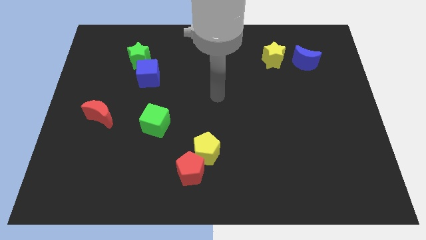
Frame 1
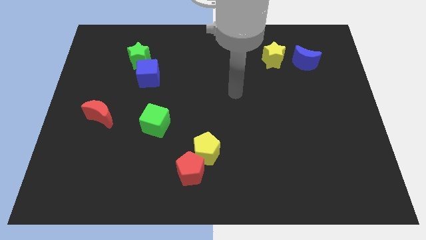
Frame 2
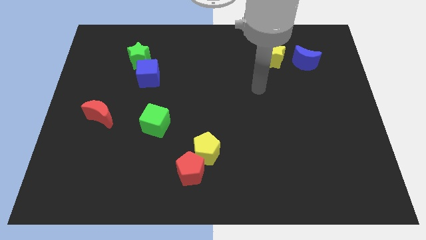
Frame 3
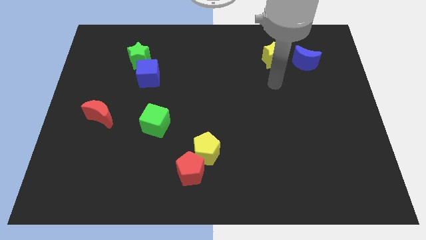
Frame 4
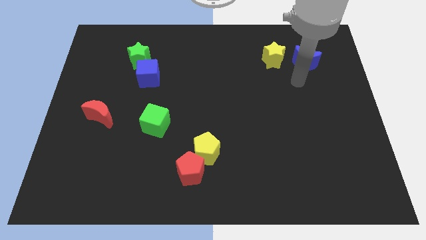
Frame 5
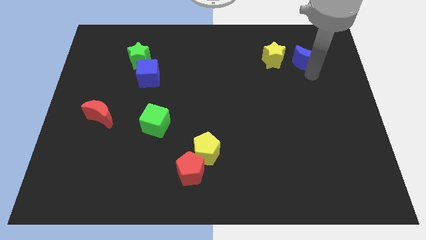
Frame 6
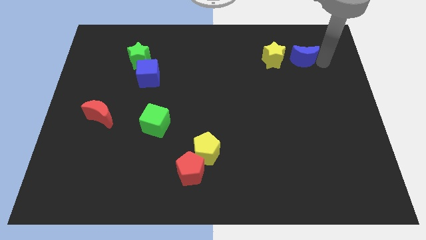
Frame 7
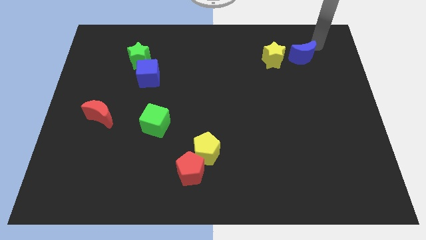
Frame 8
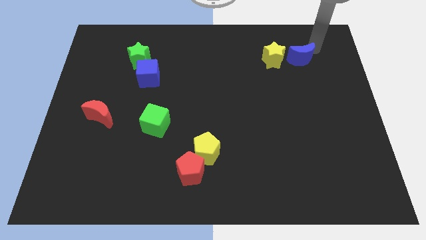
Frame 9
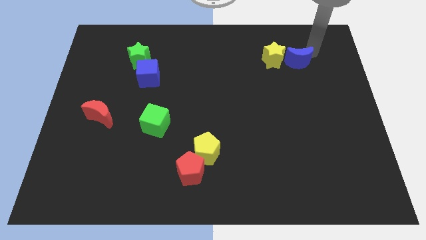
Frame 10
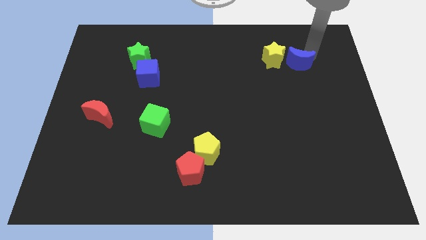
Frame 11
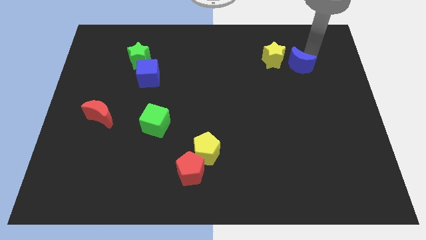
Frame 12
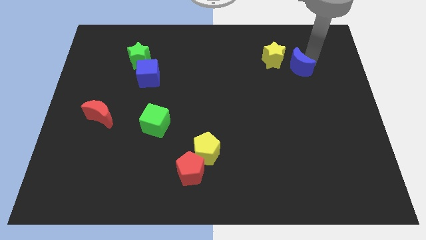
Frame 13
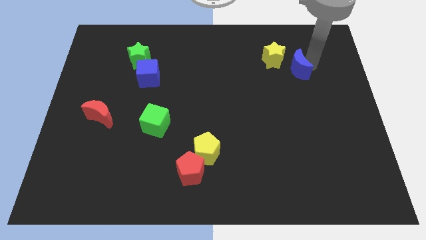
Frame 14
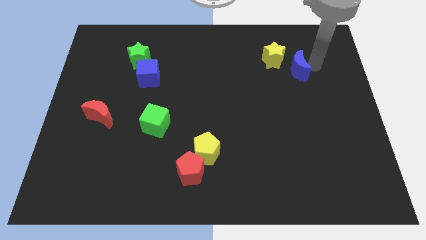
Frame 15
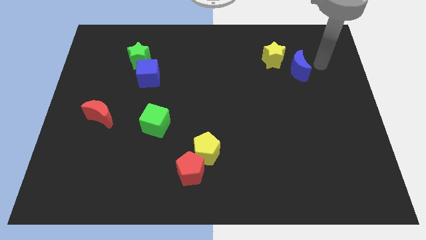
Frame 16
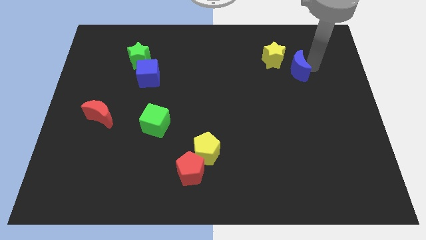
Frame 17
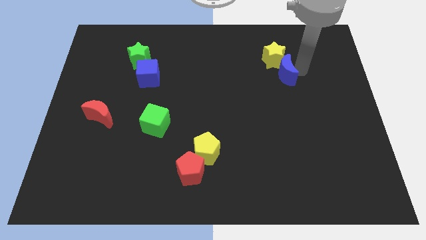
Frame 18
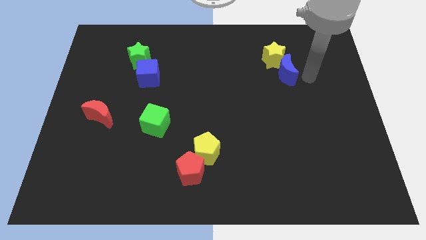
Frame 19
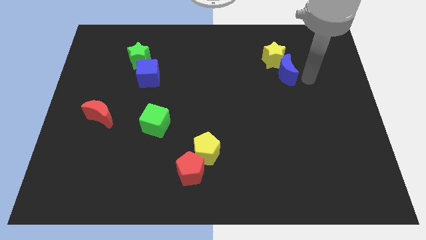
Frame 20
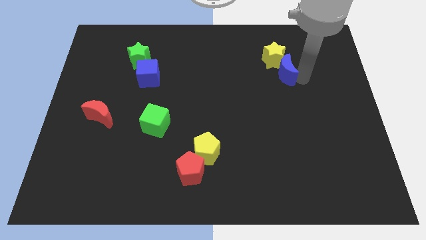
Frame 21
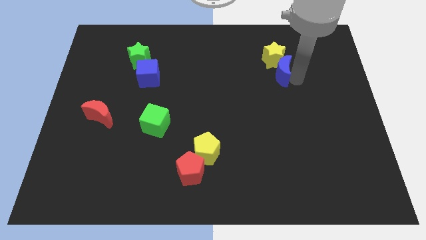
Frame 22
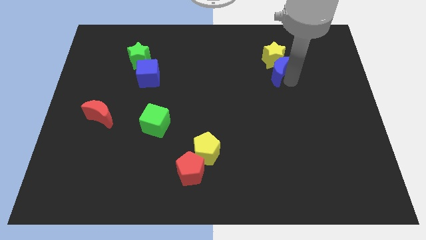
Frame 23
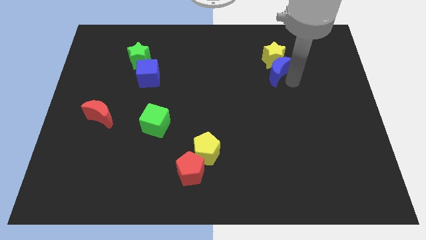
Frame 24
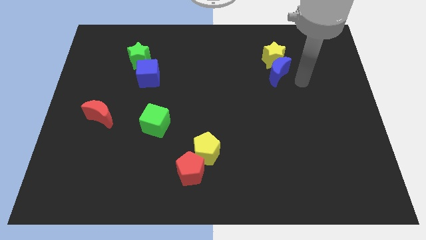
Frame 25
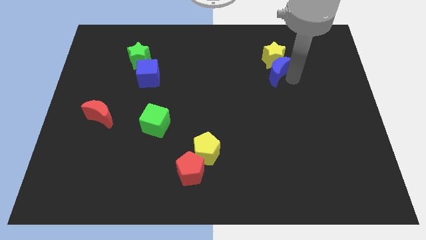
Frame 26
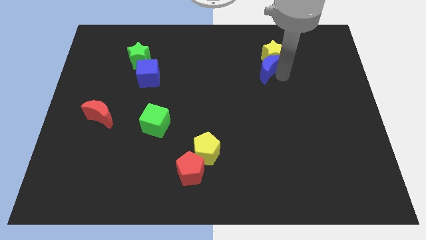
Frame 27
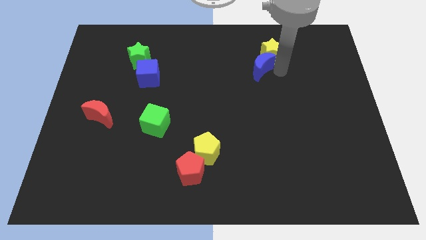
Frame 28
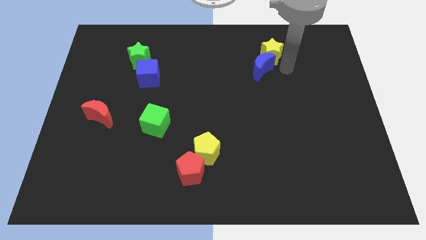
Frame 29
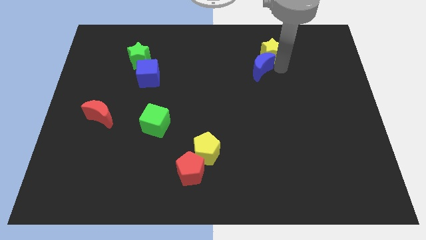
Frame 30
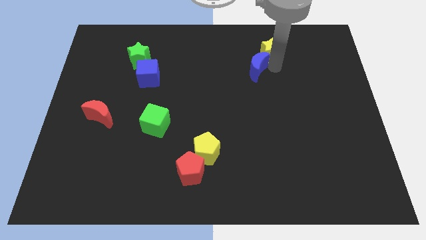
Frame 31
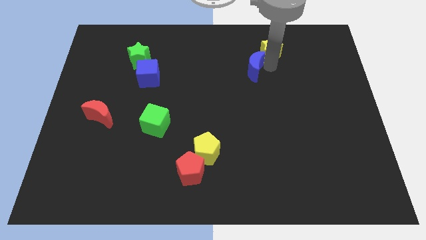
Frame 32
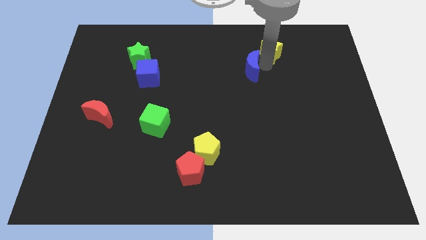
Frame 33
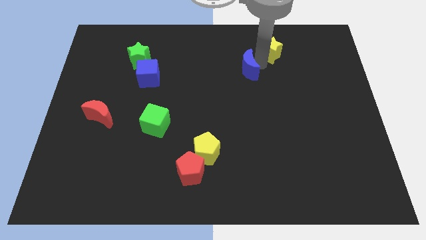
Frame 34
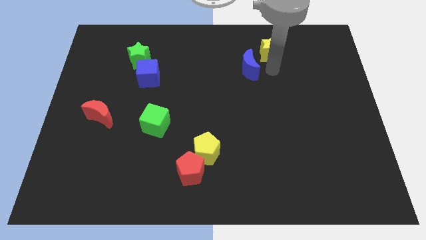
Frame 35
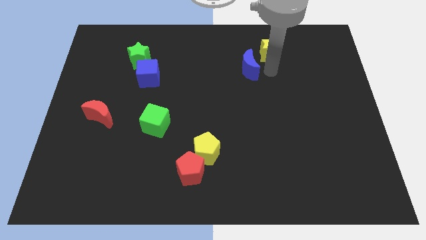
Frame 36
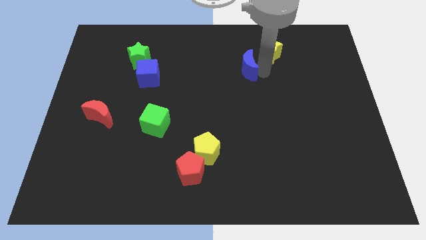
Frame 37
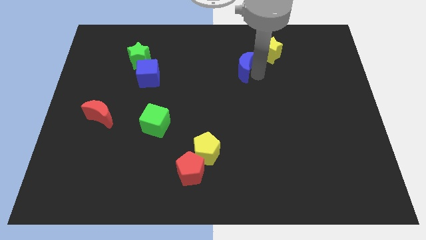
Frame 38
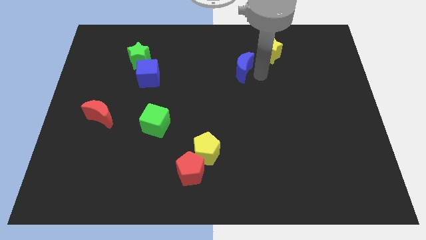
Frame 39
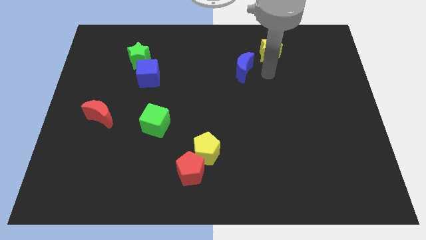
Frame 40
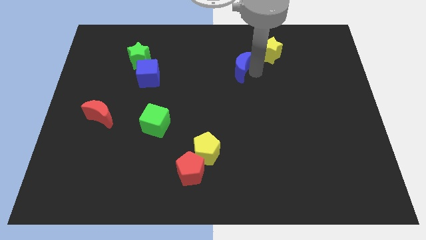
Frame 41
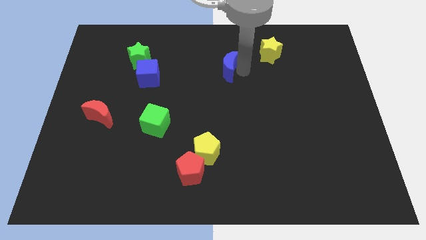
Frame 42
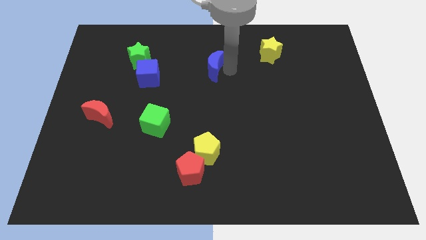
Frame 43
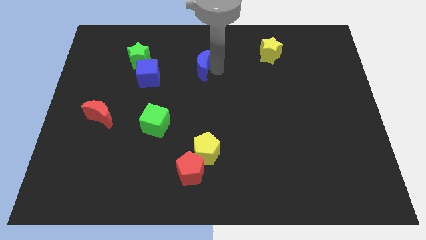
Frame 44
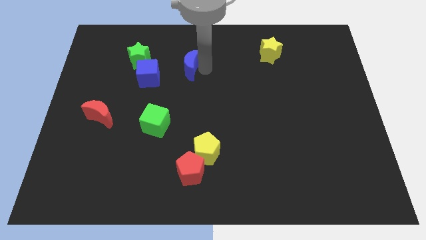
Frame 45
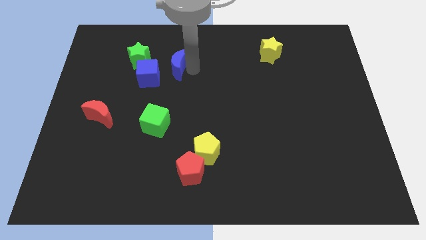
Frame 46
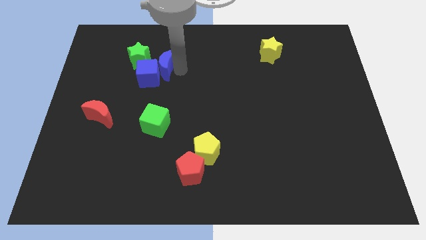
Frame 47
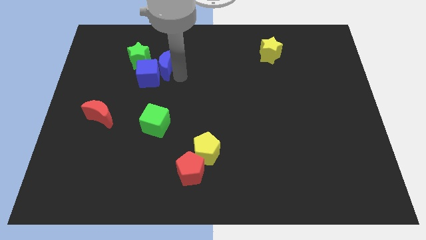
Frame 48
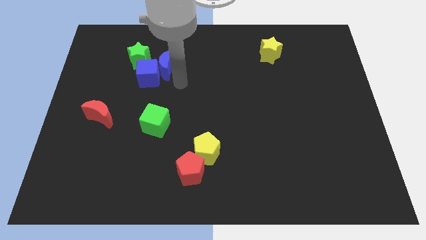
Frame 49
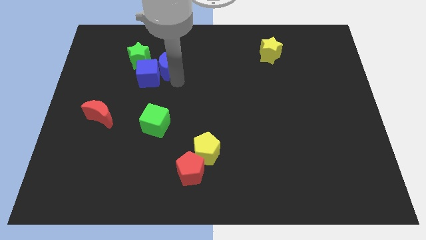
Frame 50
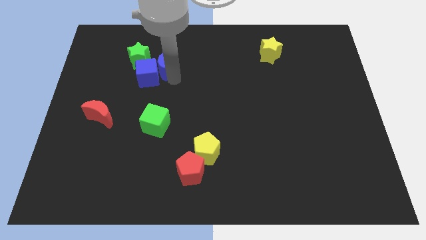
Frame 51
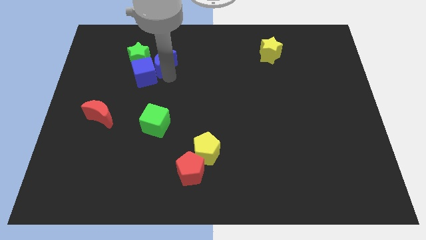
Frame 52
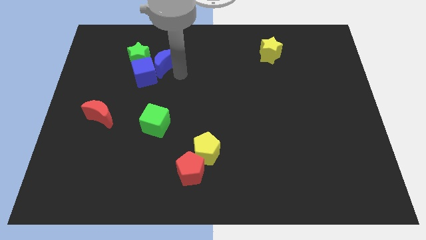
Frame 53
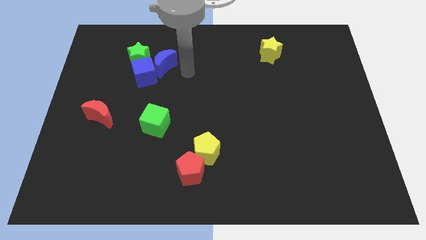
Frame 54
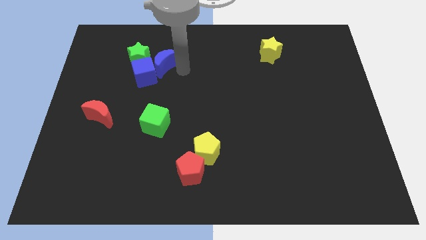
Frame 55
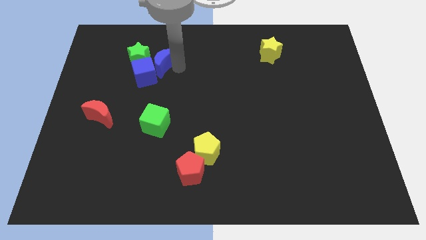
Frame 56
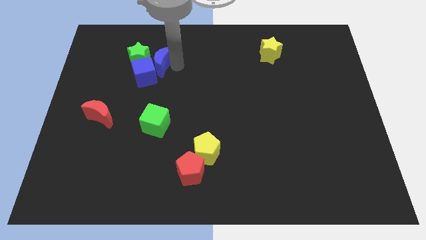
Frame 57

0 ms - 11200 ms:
move the blue moon to the green star

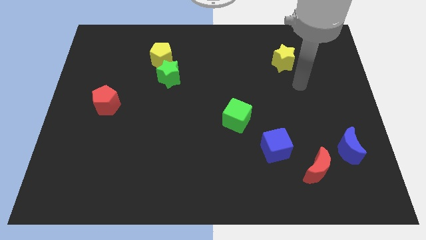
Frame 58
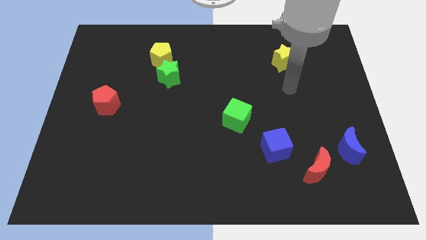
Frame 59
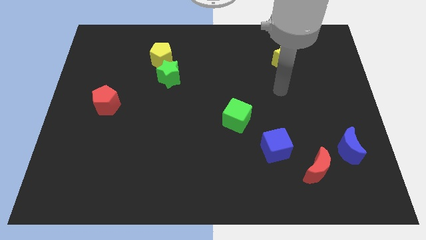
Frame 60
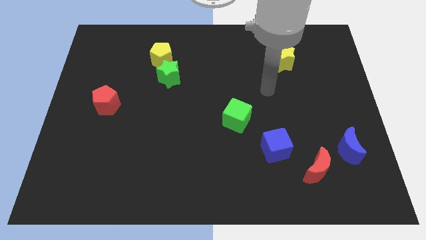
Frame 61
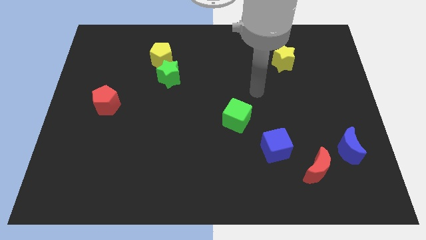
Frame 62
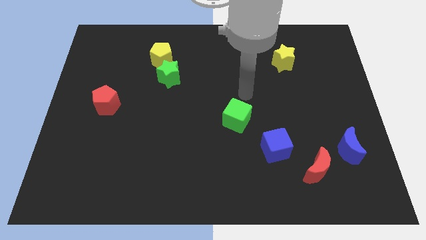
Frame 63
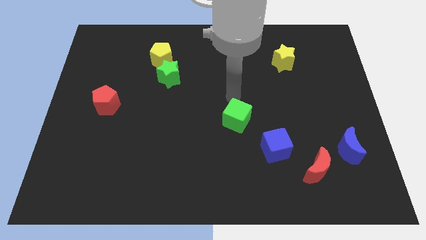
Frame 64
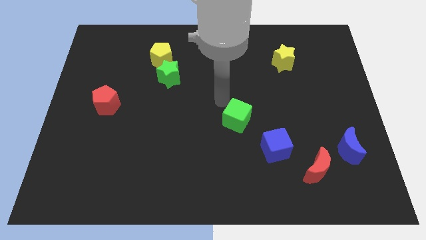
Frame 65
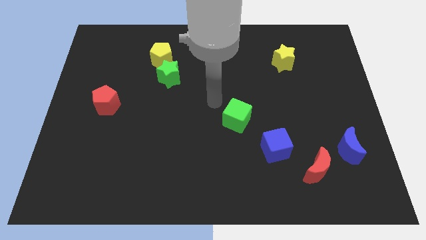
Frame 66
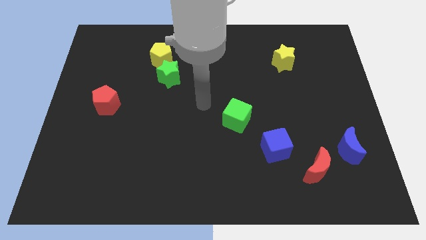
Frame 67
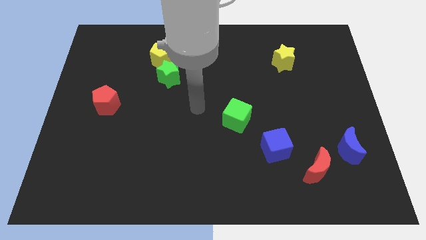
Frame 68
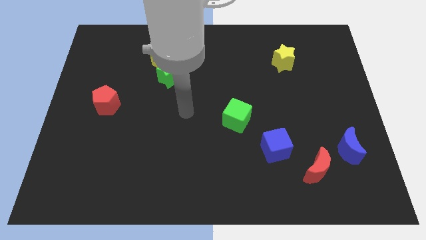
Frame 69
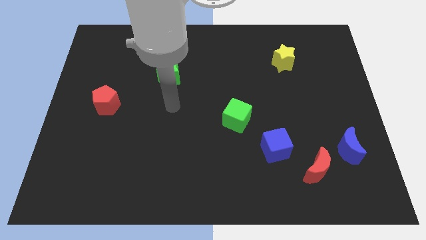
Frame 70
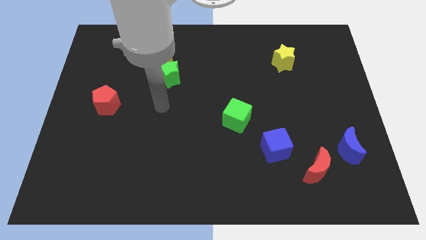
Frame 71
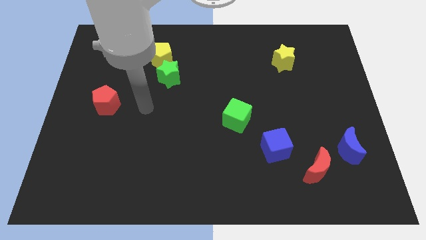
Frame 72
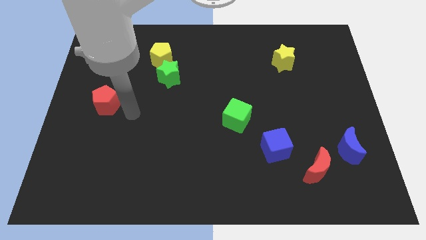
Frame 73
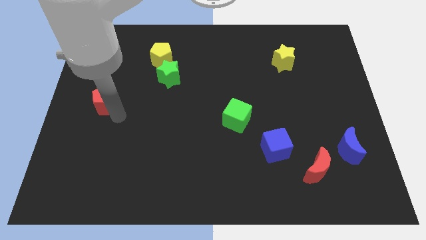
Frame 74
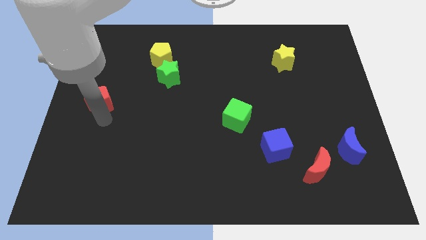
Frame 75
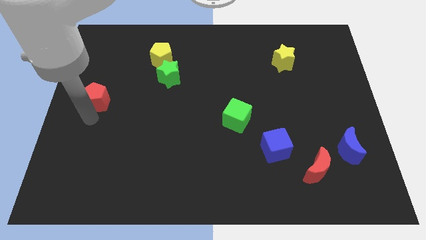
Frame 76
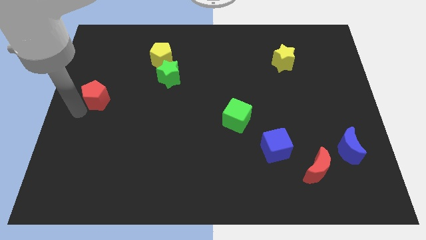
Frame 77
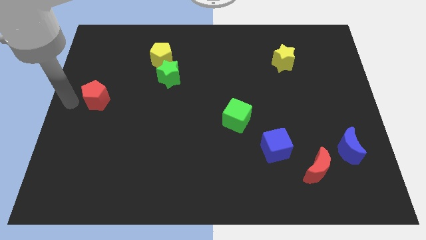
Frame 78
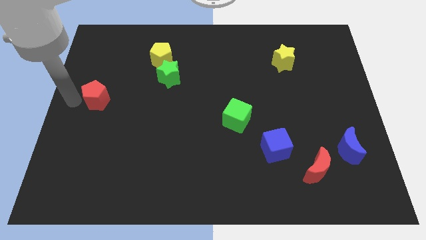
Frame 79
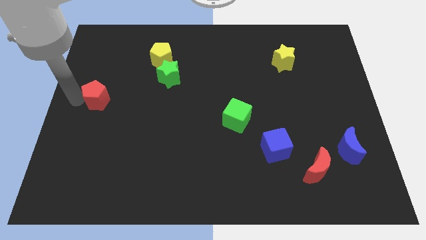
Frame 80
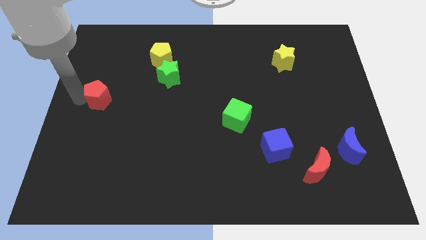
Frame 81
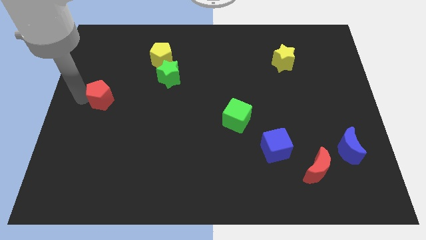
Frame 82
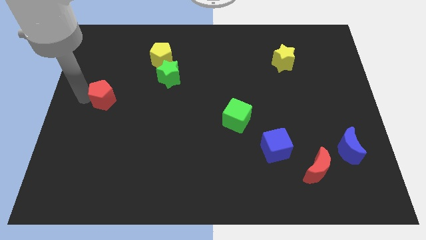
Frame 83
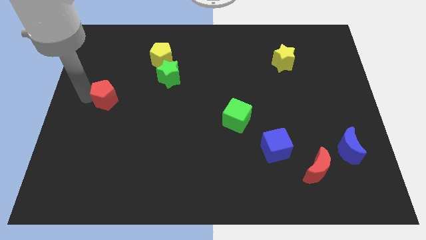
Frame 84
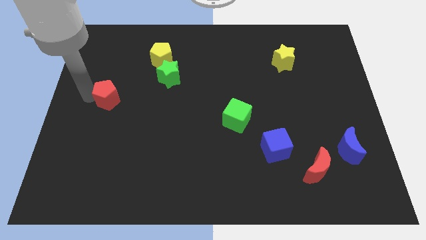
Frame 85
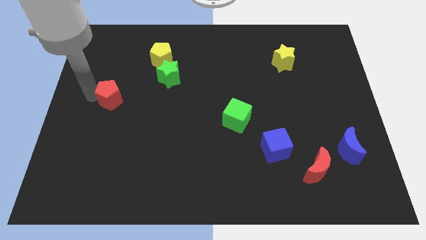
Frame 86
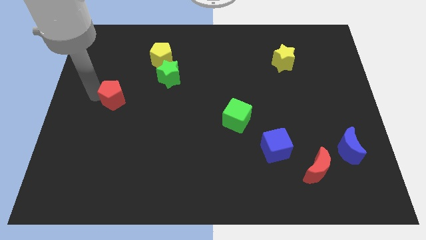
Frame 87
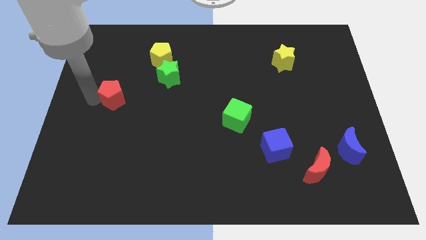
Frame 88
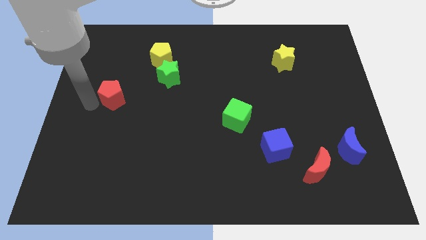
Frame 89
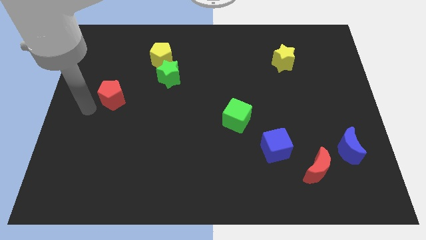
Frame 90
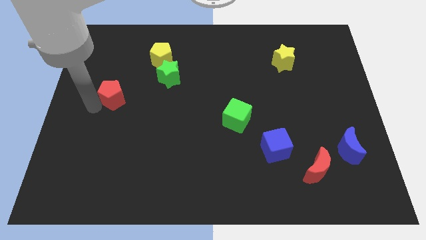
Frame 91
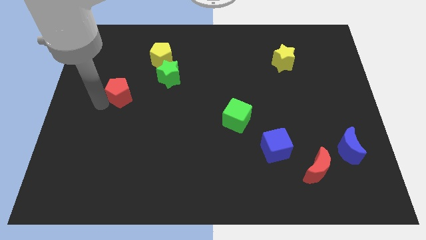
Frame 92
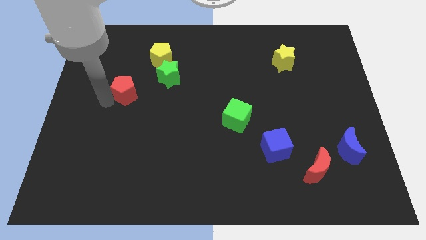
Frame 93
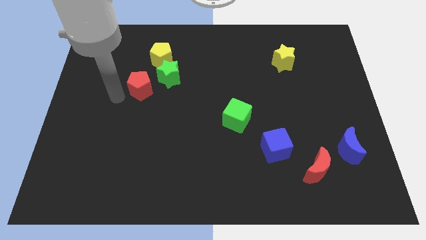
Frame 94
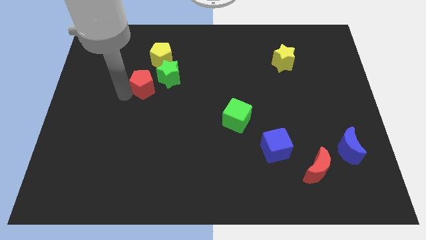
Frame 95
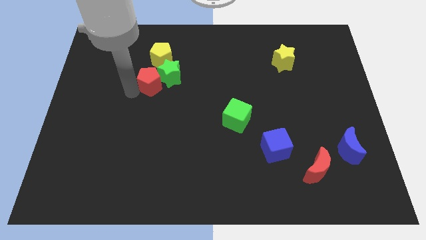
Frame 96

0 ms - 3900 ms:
push the red pentagon towards the green star
